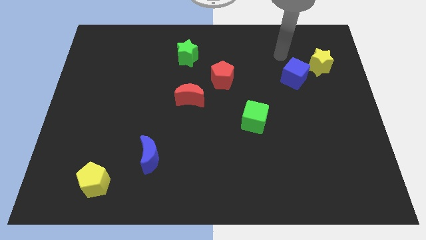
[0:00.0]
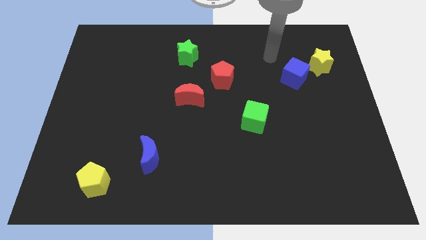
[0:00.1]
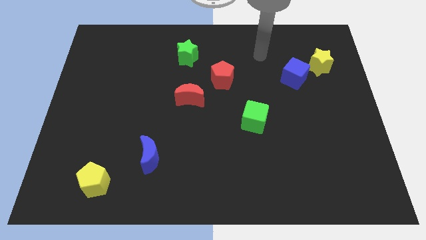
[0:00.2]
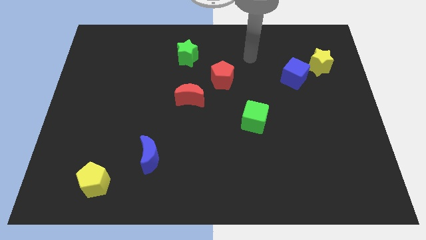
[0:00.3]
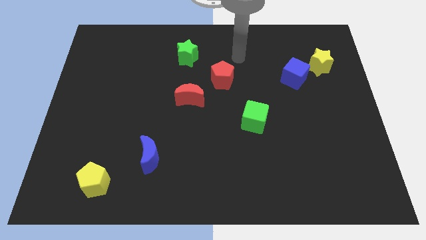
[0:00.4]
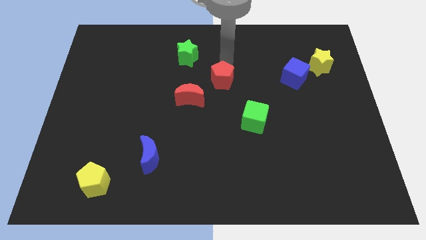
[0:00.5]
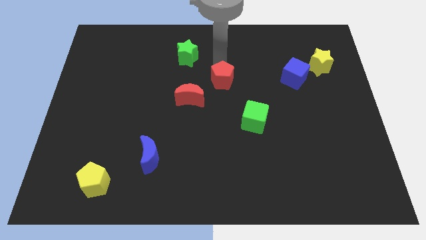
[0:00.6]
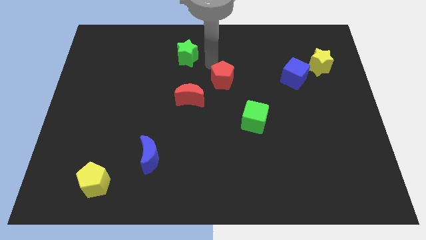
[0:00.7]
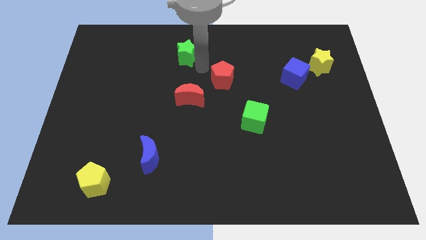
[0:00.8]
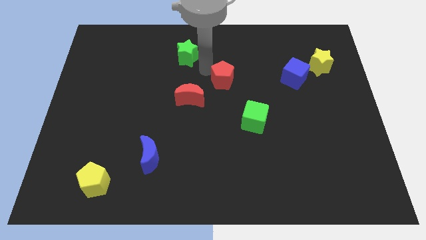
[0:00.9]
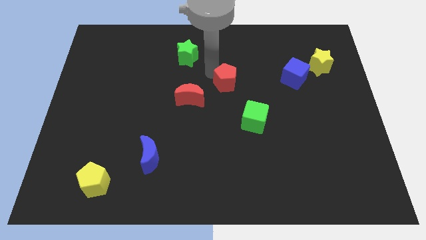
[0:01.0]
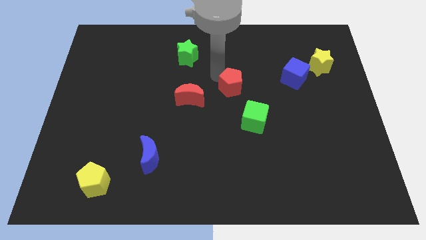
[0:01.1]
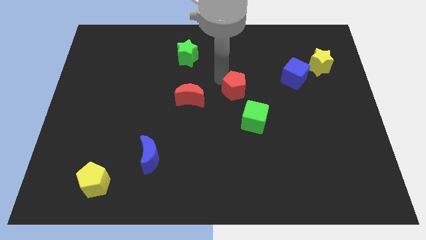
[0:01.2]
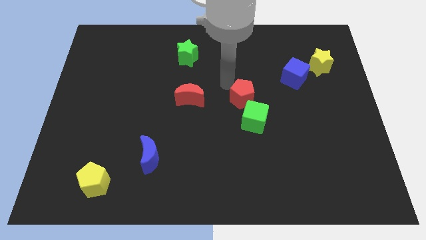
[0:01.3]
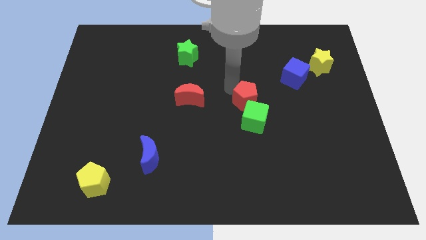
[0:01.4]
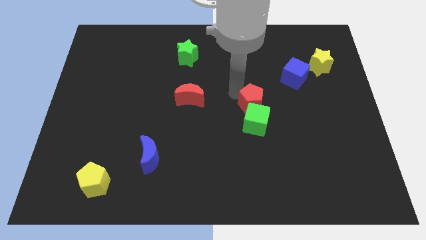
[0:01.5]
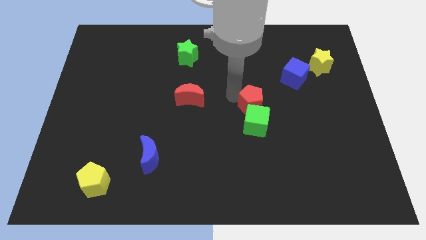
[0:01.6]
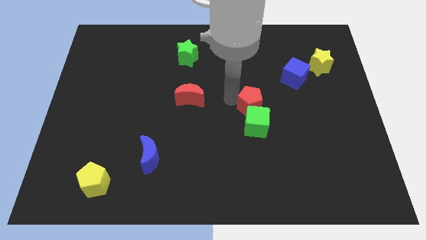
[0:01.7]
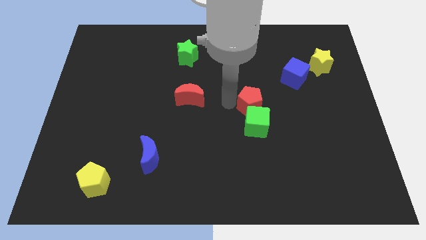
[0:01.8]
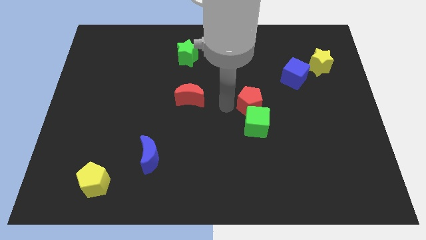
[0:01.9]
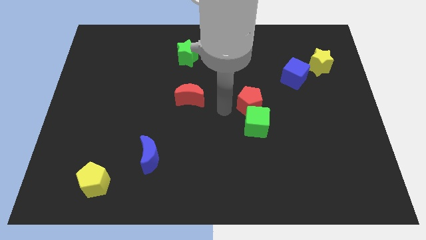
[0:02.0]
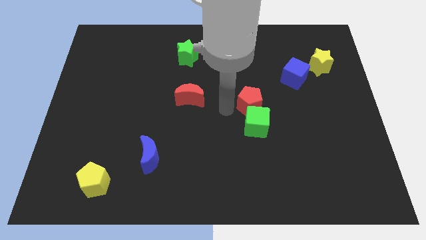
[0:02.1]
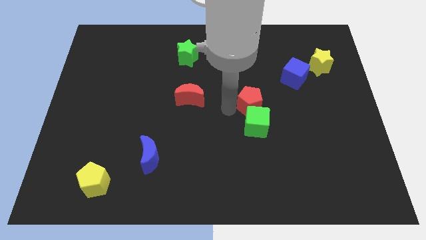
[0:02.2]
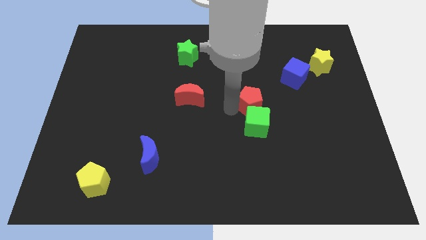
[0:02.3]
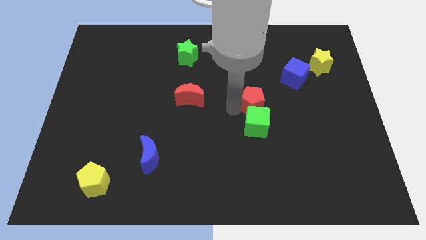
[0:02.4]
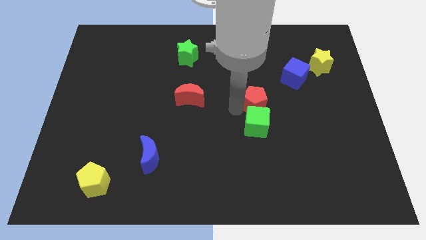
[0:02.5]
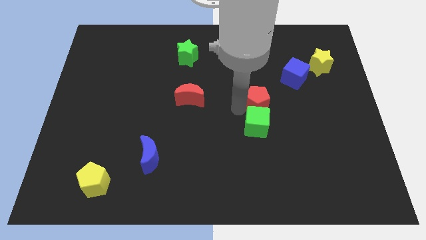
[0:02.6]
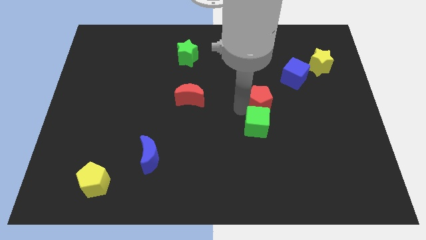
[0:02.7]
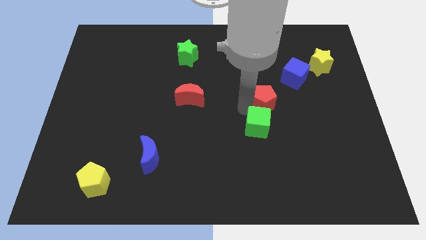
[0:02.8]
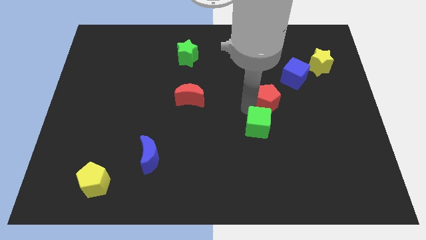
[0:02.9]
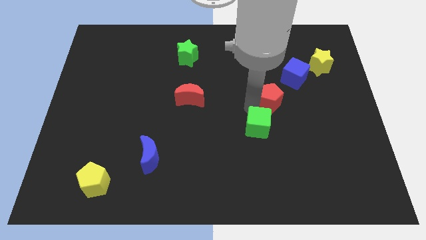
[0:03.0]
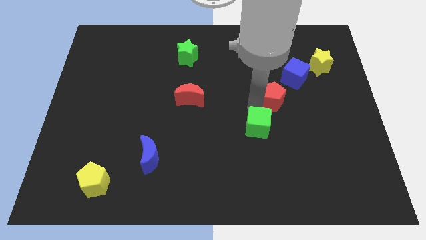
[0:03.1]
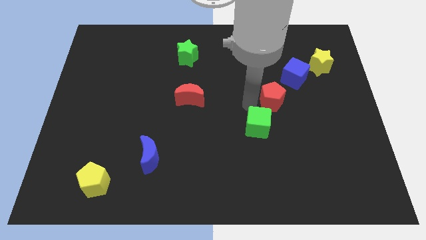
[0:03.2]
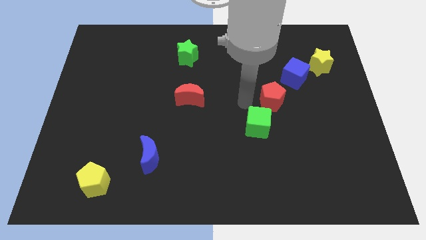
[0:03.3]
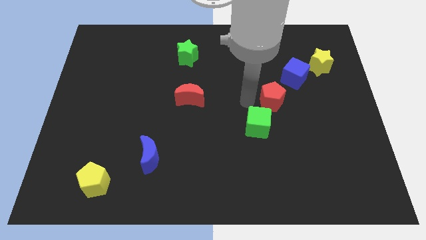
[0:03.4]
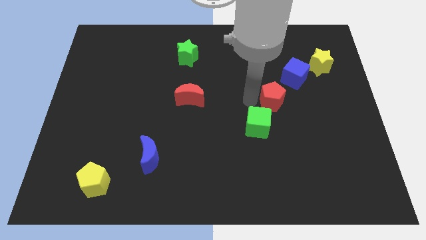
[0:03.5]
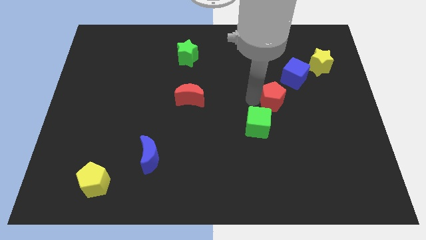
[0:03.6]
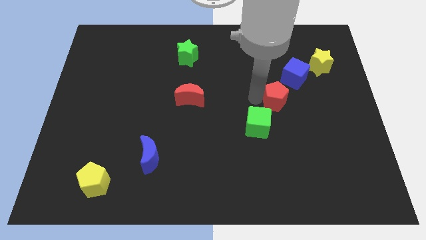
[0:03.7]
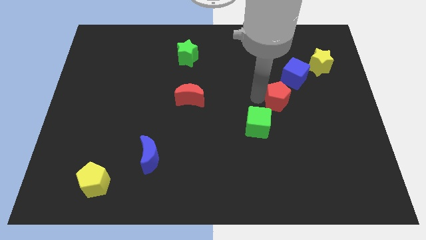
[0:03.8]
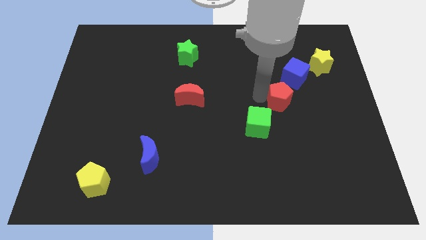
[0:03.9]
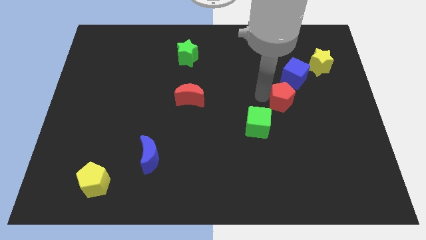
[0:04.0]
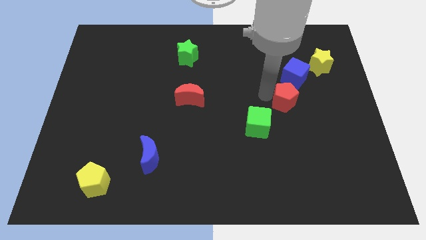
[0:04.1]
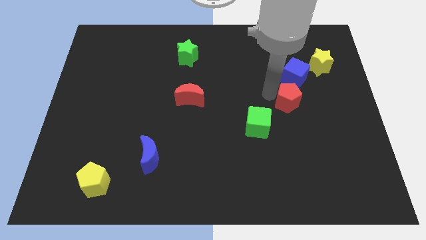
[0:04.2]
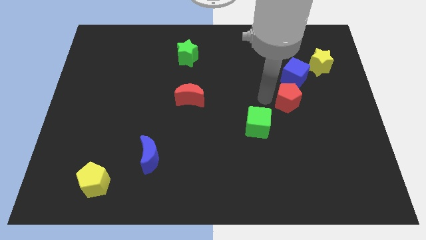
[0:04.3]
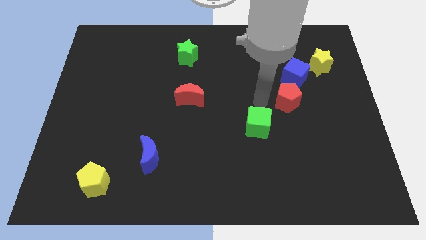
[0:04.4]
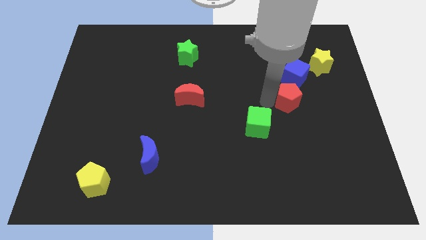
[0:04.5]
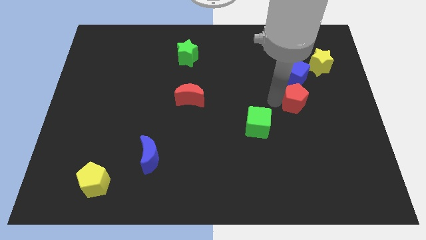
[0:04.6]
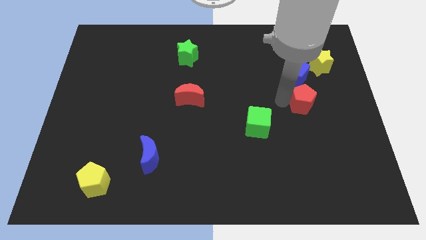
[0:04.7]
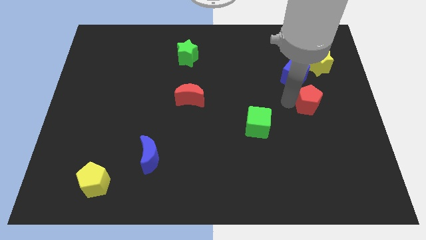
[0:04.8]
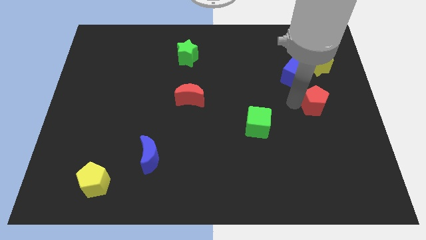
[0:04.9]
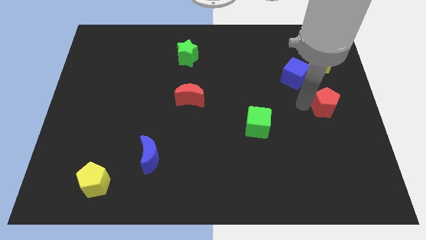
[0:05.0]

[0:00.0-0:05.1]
slide the red pentagon to the right side

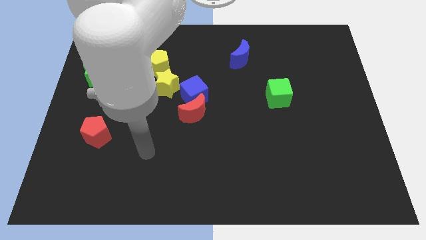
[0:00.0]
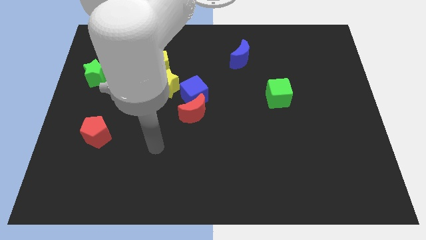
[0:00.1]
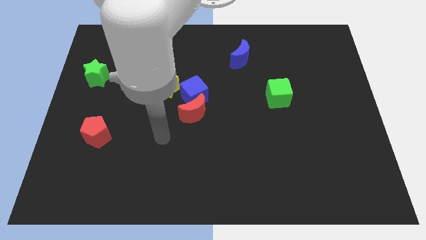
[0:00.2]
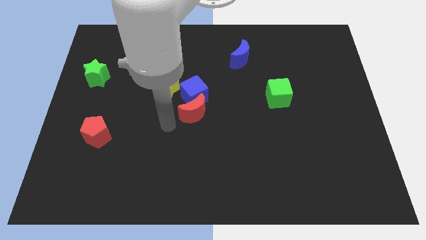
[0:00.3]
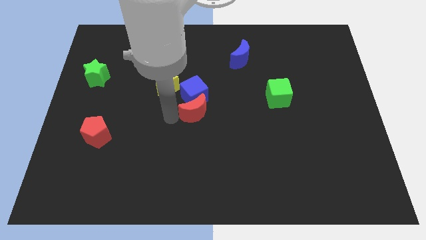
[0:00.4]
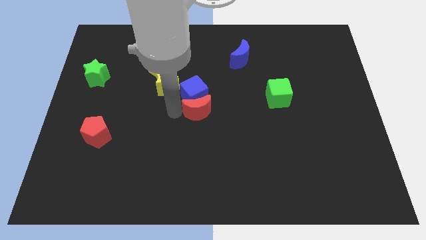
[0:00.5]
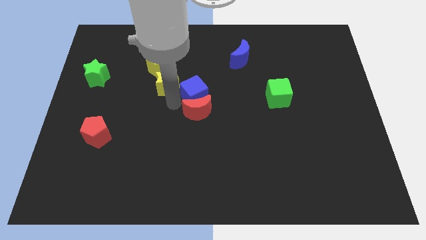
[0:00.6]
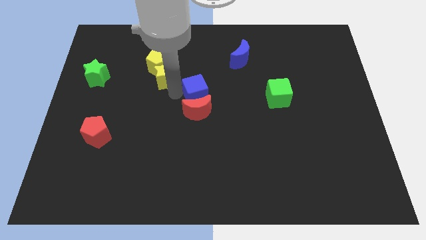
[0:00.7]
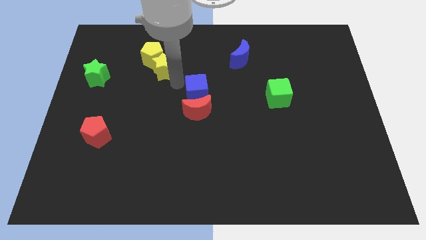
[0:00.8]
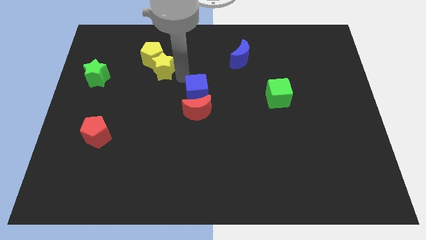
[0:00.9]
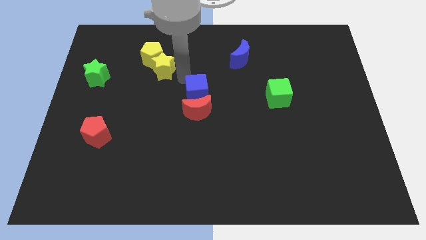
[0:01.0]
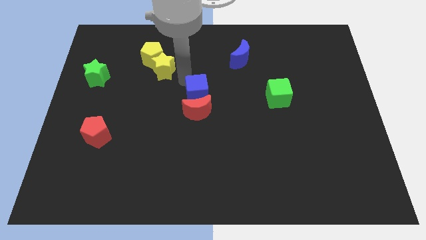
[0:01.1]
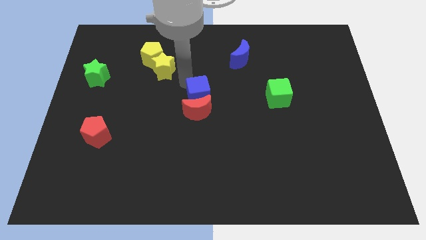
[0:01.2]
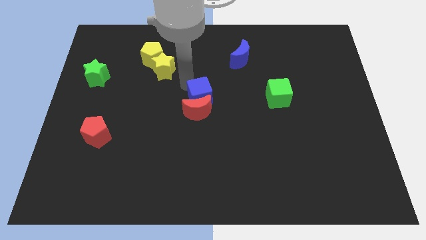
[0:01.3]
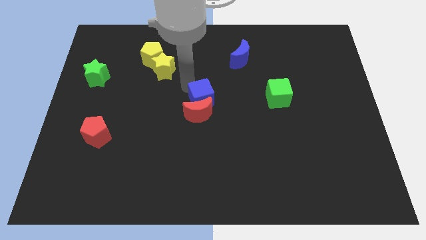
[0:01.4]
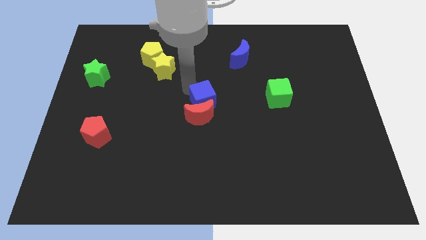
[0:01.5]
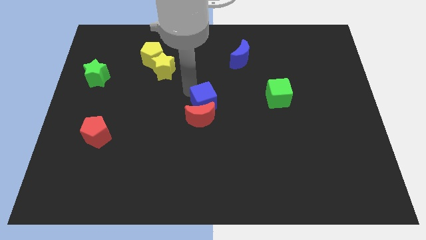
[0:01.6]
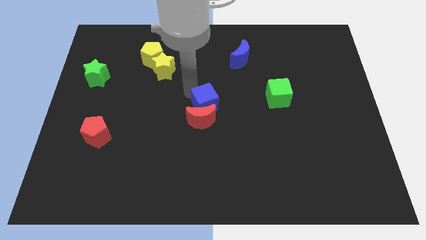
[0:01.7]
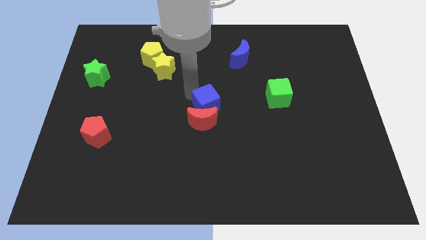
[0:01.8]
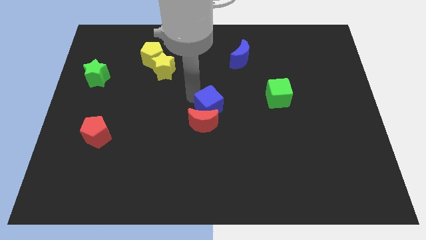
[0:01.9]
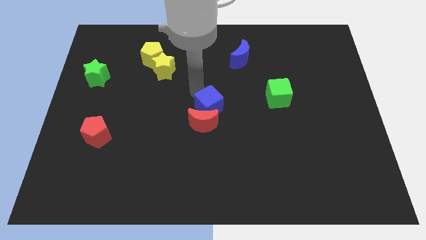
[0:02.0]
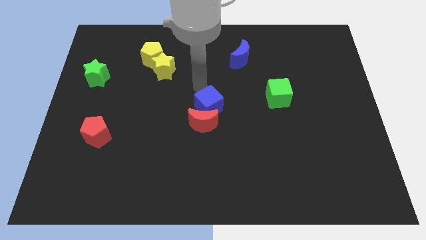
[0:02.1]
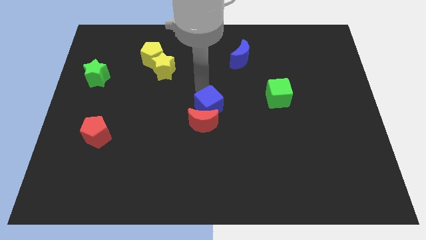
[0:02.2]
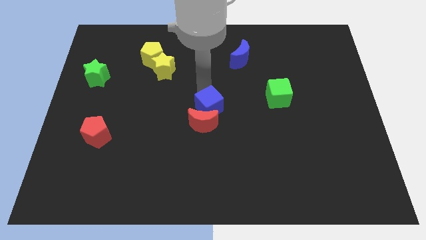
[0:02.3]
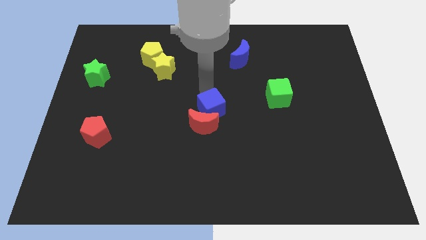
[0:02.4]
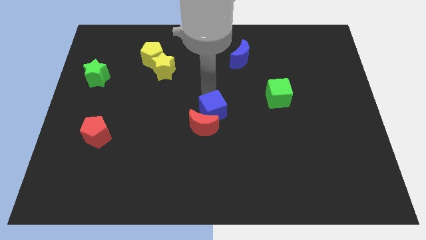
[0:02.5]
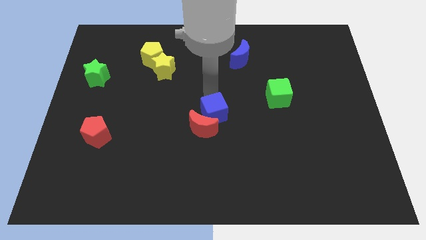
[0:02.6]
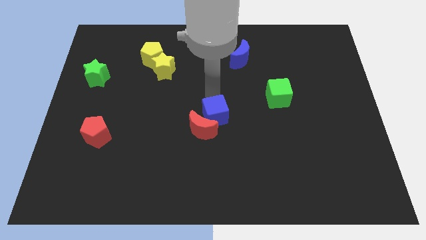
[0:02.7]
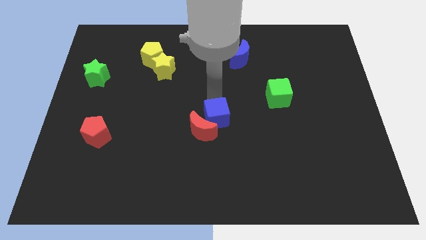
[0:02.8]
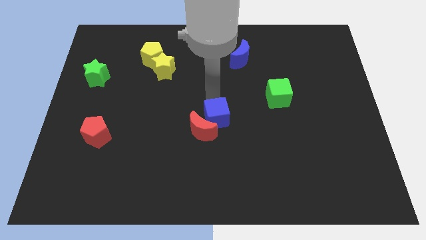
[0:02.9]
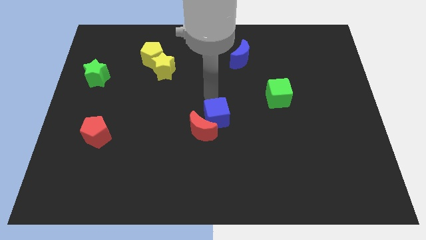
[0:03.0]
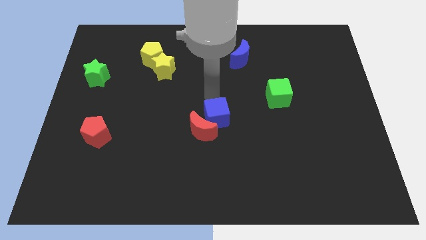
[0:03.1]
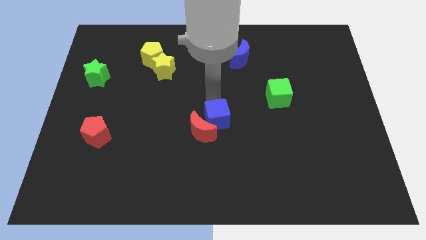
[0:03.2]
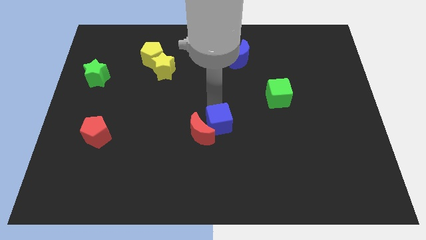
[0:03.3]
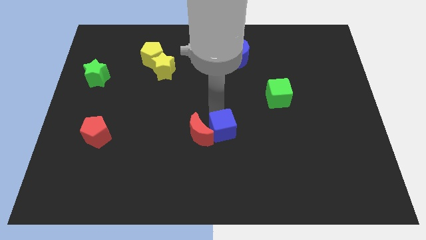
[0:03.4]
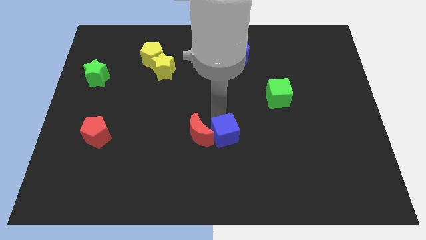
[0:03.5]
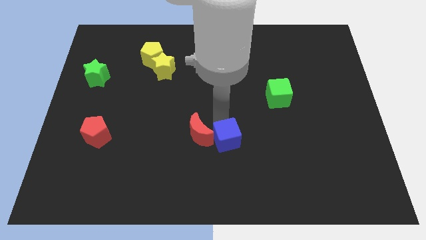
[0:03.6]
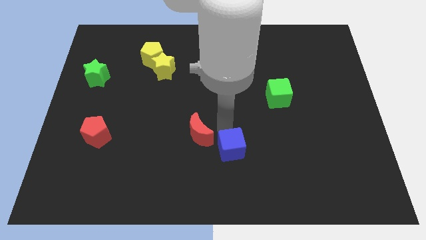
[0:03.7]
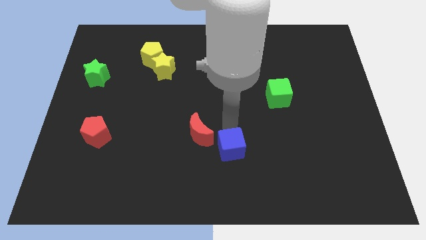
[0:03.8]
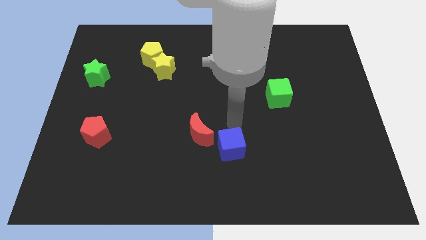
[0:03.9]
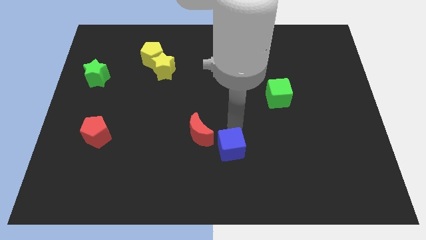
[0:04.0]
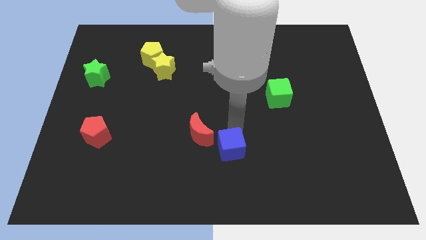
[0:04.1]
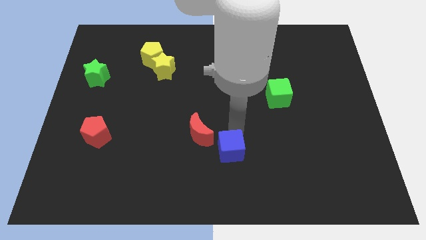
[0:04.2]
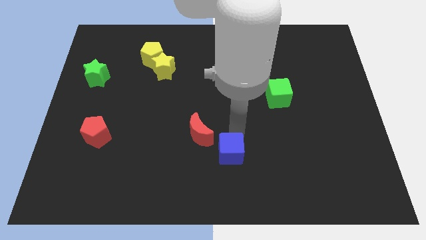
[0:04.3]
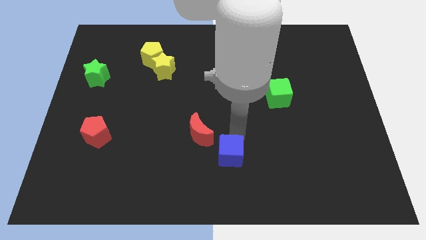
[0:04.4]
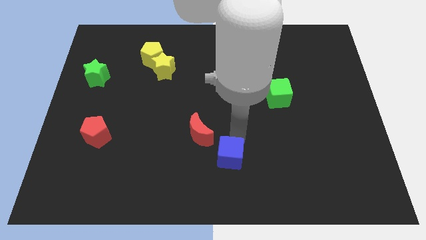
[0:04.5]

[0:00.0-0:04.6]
move the blue cube to the bottom side
